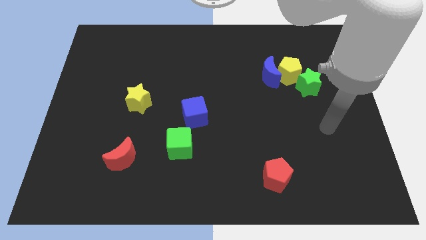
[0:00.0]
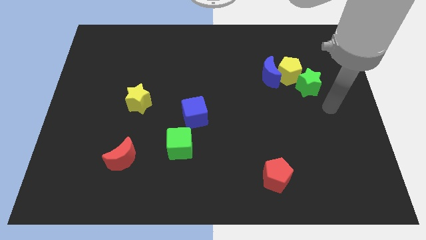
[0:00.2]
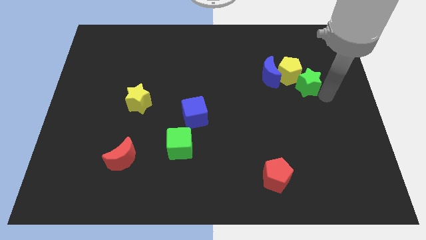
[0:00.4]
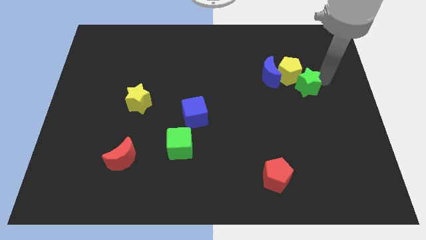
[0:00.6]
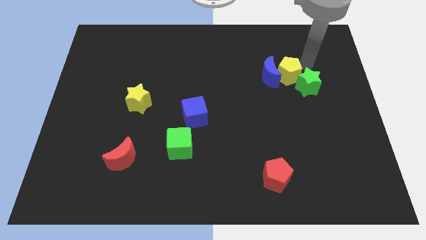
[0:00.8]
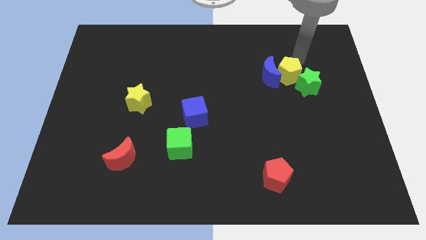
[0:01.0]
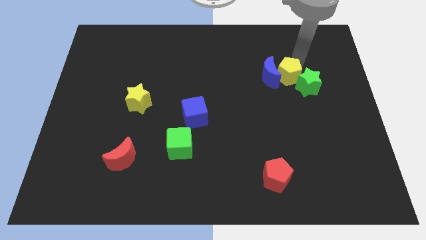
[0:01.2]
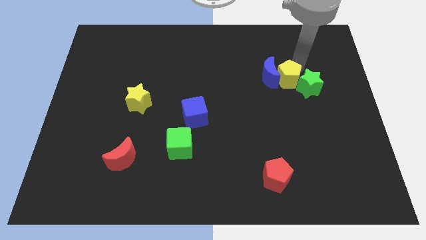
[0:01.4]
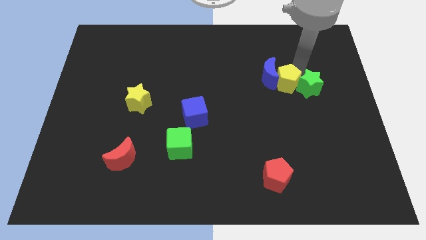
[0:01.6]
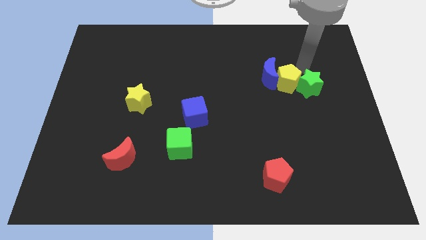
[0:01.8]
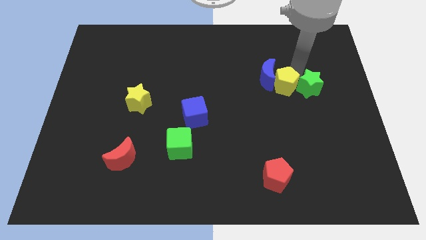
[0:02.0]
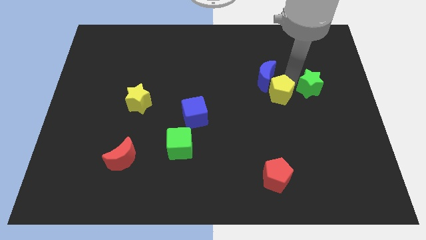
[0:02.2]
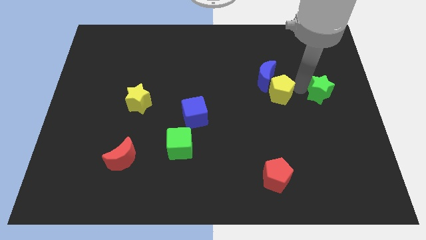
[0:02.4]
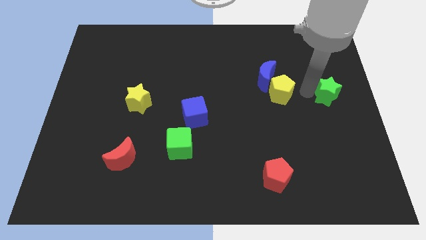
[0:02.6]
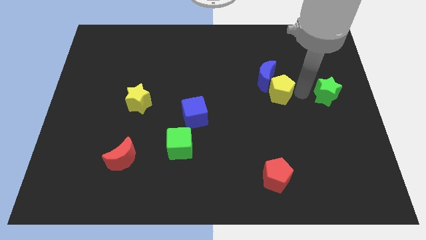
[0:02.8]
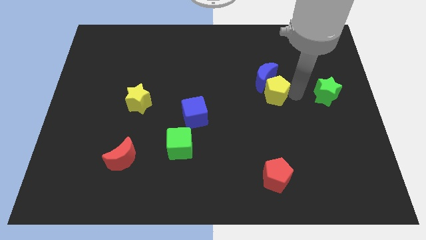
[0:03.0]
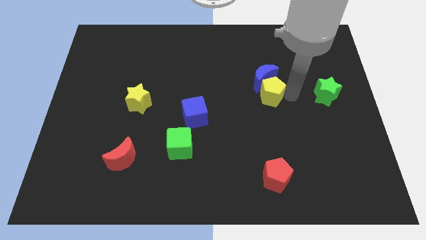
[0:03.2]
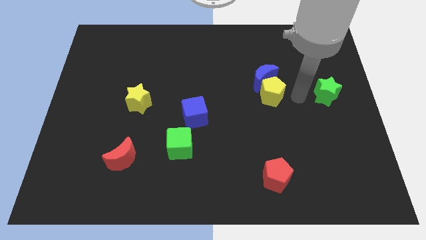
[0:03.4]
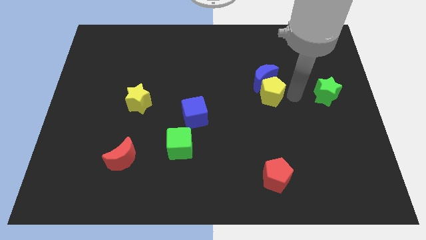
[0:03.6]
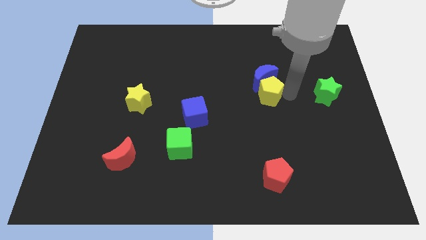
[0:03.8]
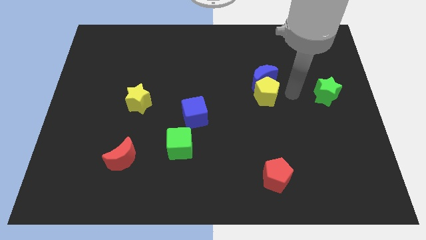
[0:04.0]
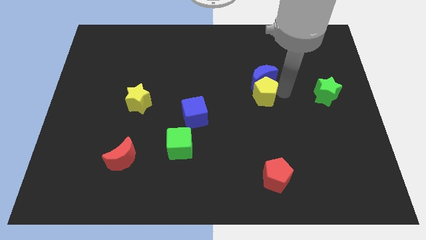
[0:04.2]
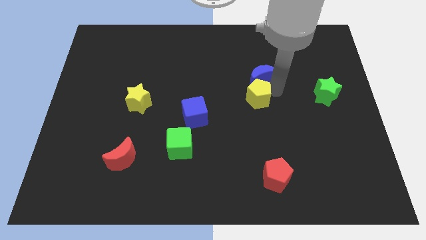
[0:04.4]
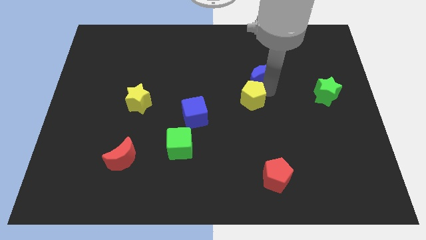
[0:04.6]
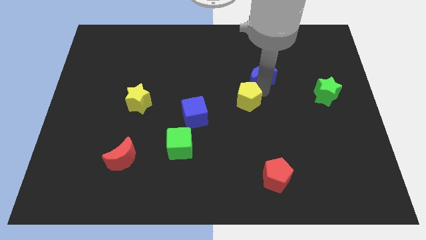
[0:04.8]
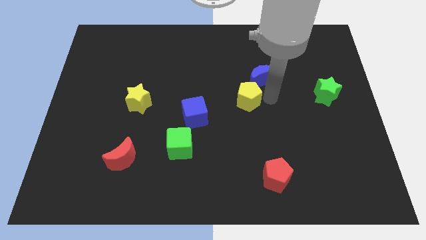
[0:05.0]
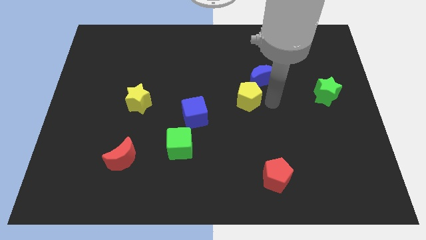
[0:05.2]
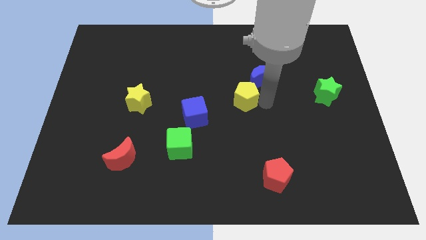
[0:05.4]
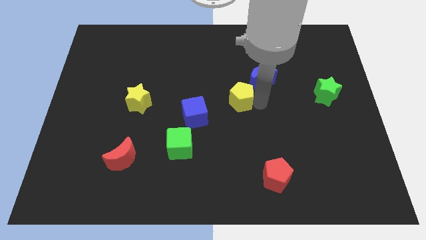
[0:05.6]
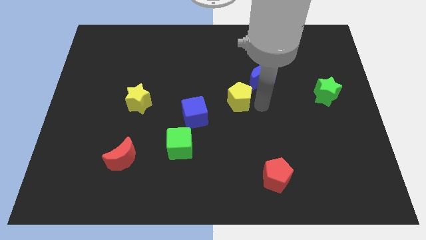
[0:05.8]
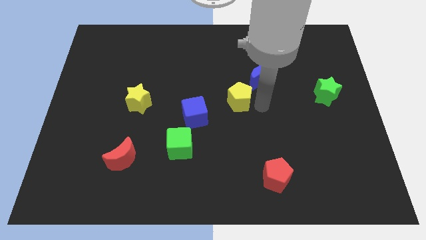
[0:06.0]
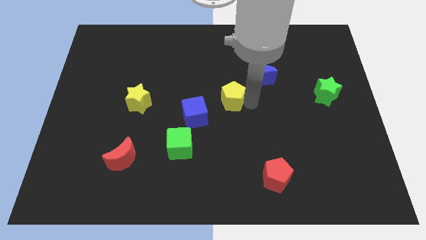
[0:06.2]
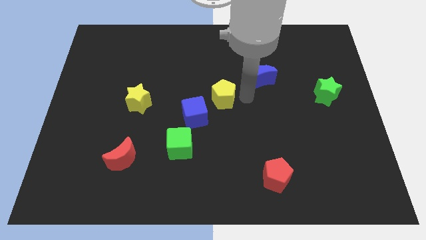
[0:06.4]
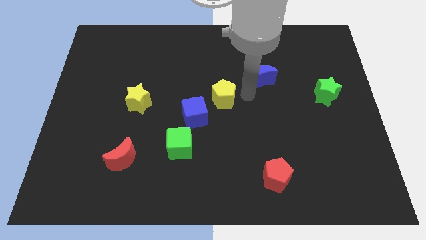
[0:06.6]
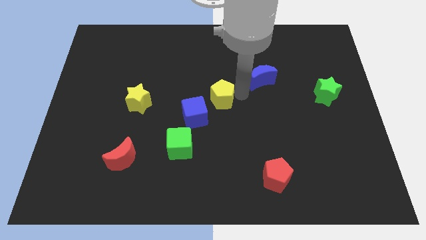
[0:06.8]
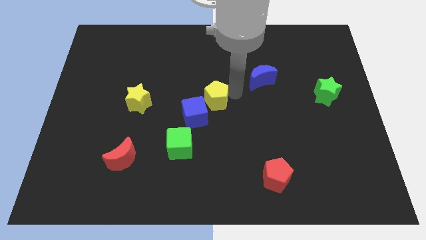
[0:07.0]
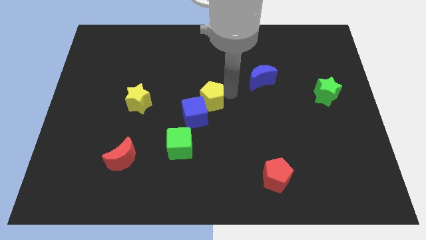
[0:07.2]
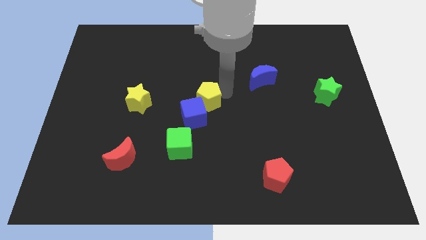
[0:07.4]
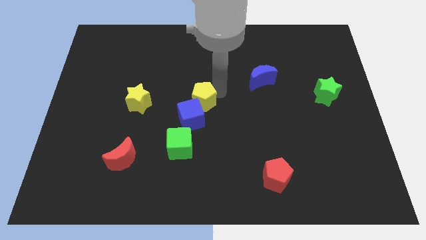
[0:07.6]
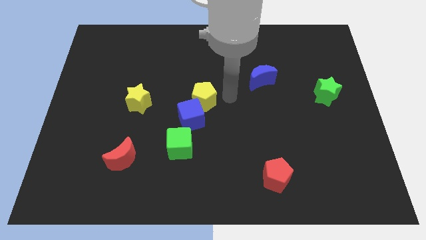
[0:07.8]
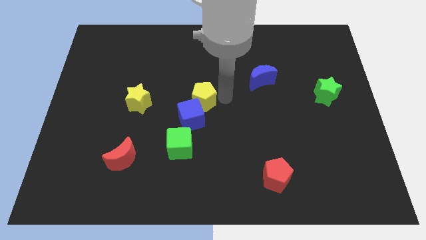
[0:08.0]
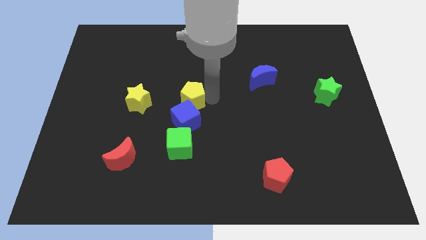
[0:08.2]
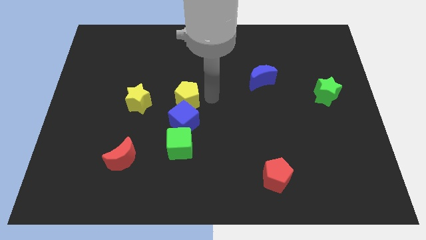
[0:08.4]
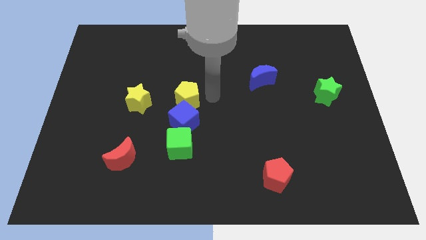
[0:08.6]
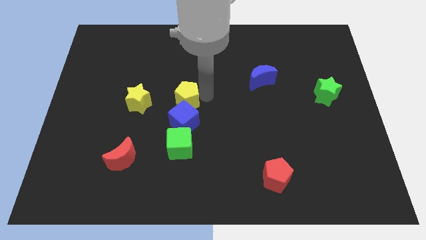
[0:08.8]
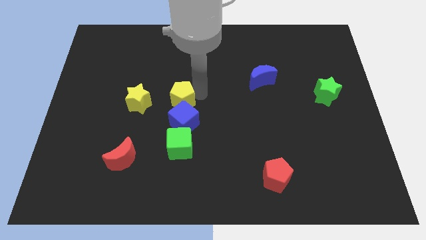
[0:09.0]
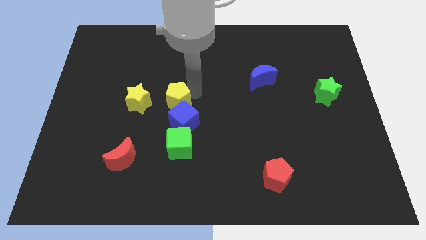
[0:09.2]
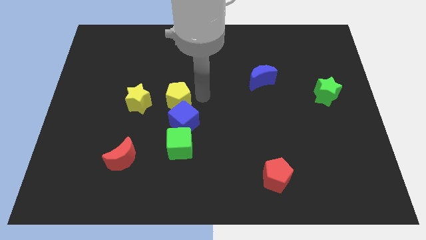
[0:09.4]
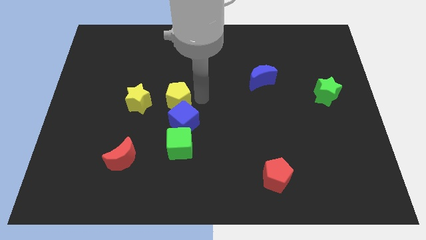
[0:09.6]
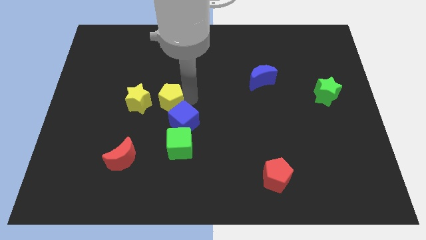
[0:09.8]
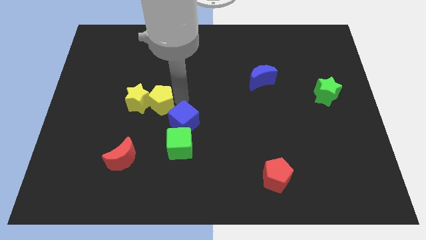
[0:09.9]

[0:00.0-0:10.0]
push the yellow pentagon to the yellow star

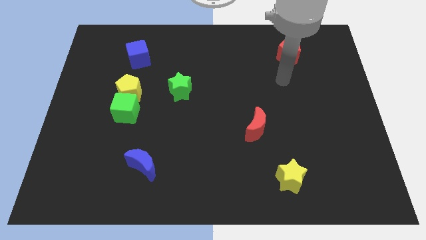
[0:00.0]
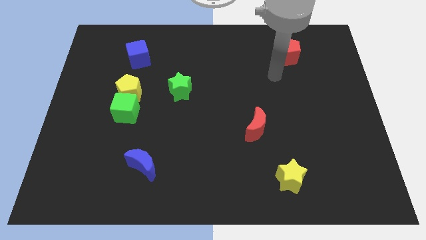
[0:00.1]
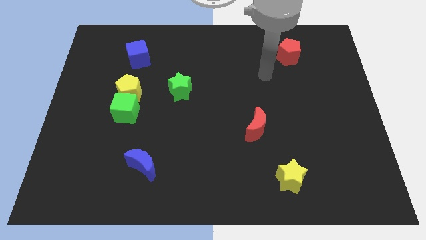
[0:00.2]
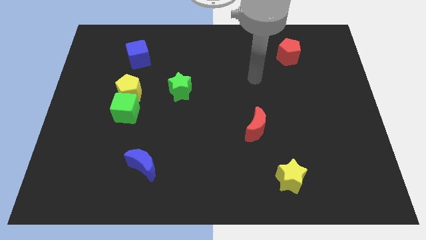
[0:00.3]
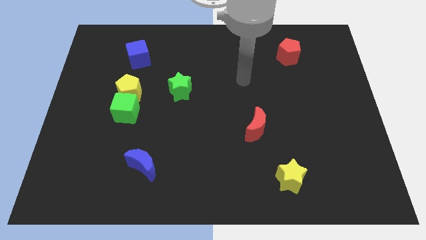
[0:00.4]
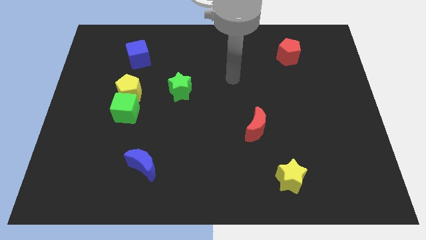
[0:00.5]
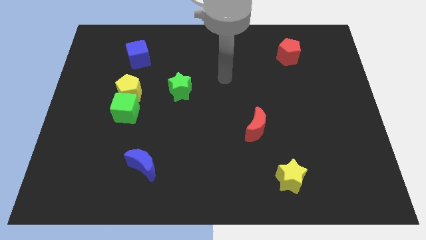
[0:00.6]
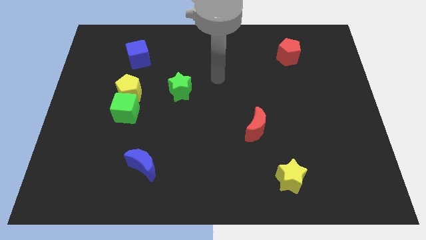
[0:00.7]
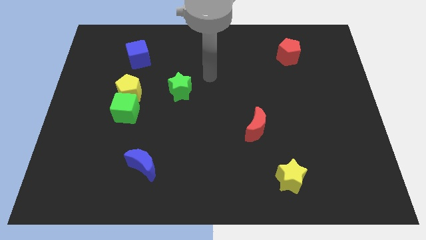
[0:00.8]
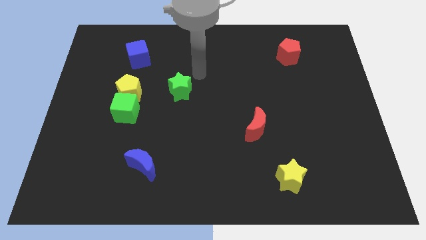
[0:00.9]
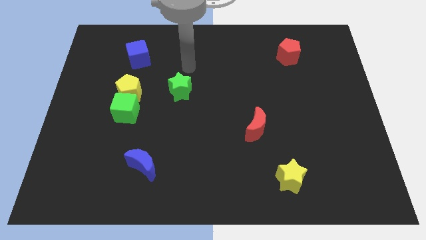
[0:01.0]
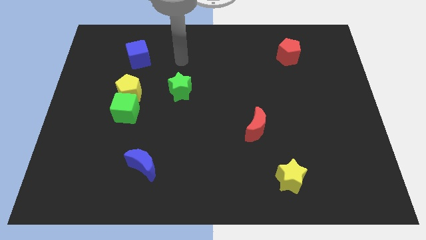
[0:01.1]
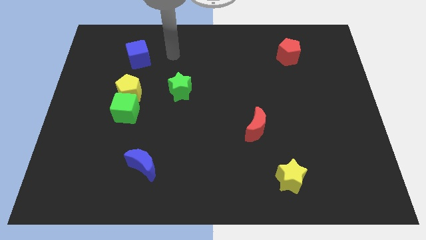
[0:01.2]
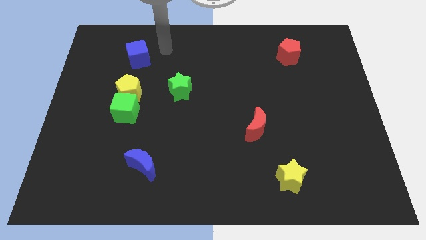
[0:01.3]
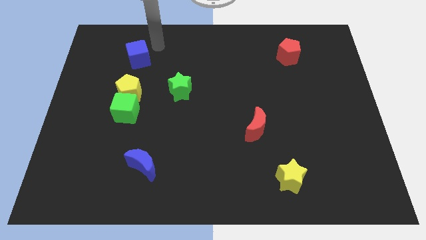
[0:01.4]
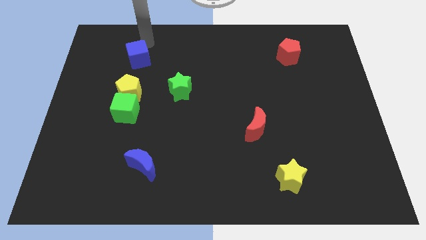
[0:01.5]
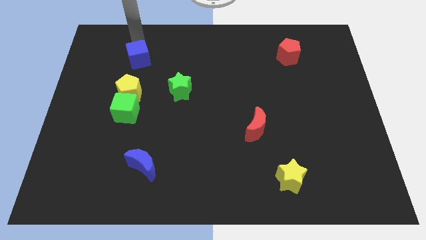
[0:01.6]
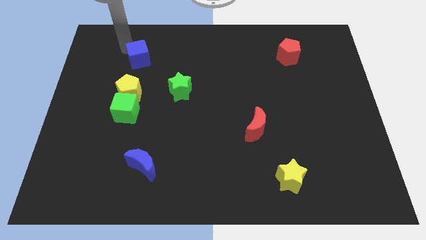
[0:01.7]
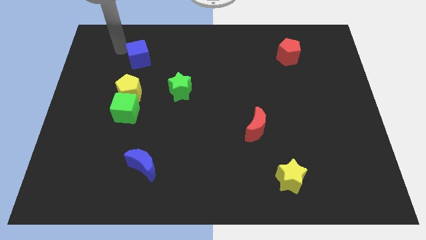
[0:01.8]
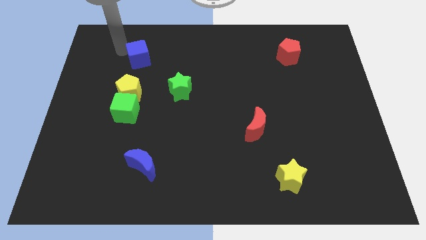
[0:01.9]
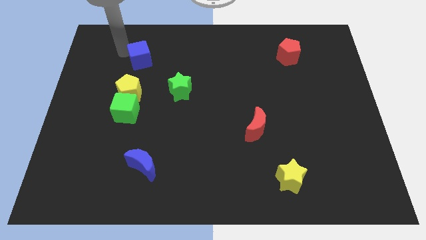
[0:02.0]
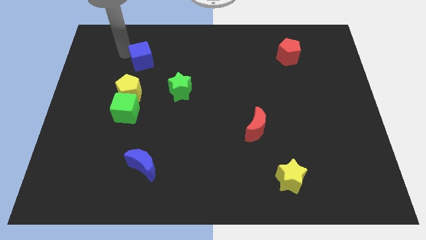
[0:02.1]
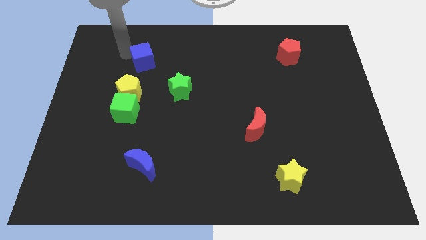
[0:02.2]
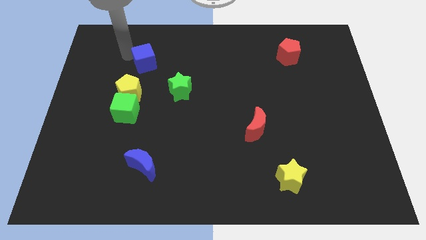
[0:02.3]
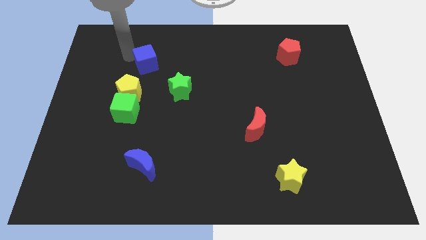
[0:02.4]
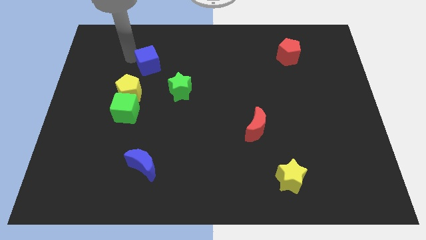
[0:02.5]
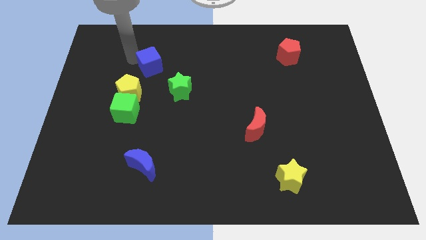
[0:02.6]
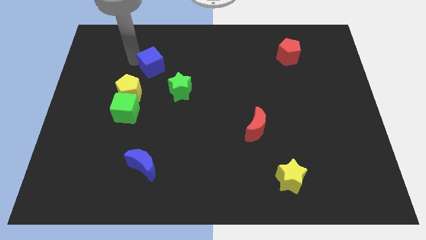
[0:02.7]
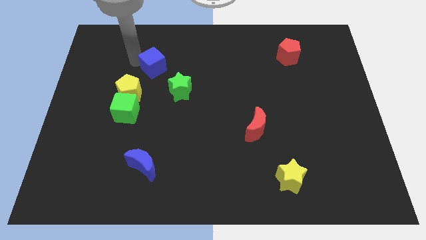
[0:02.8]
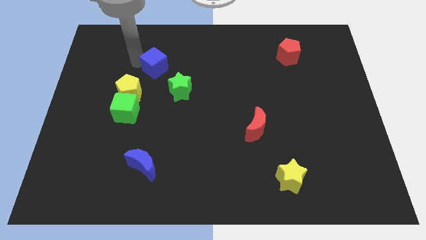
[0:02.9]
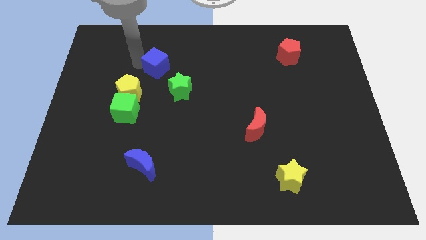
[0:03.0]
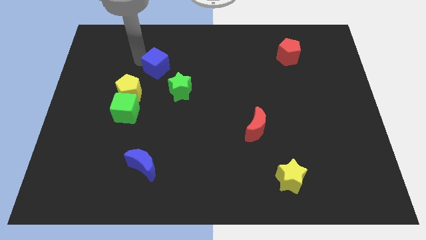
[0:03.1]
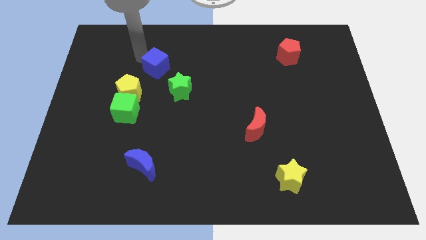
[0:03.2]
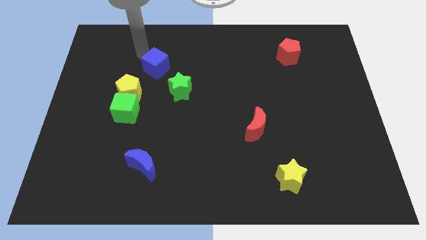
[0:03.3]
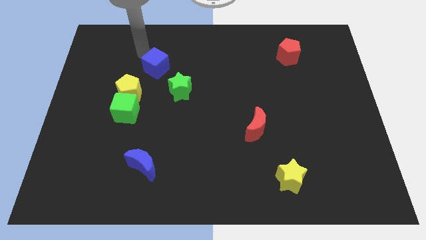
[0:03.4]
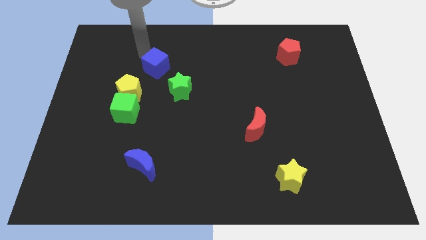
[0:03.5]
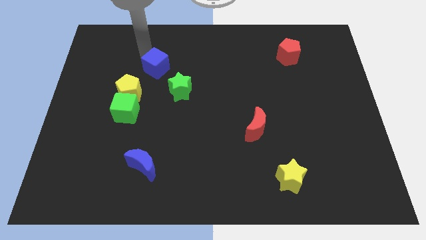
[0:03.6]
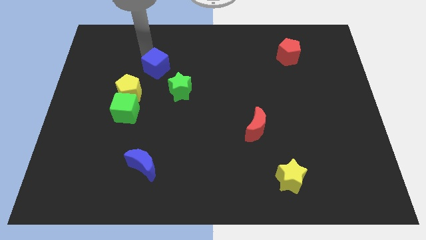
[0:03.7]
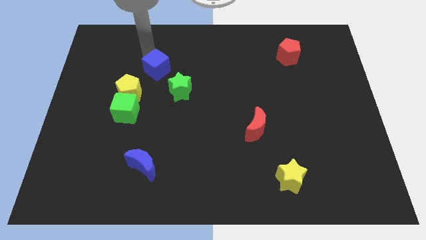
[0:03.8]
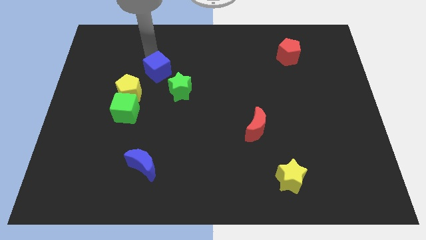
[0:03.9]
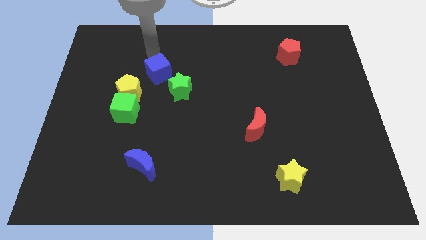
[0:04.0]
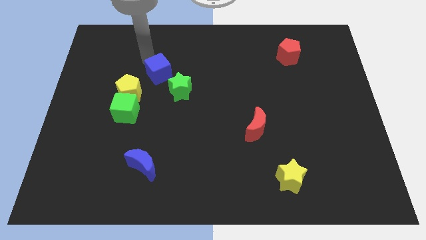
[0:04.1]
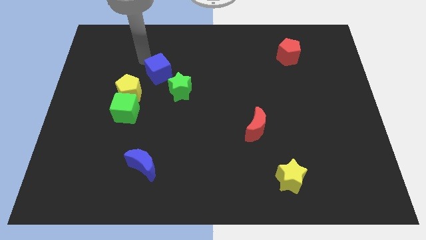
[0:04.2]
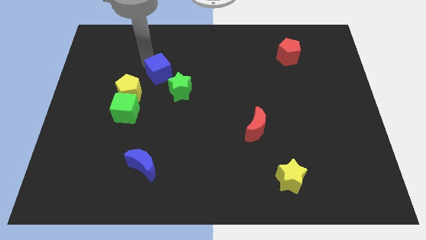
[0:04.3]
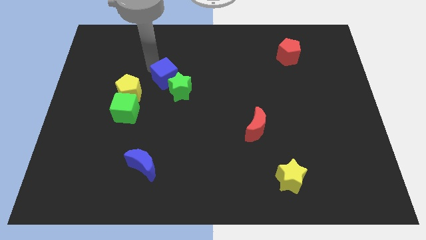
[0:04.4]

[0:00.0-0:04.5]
put the blue cube next to the green star
